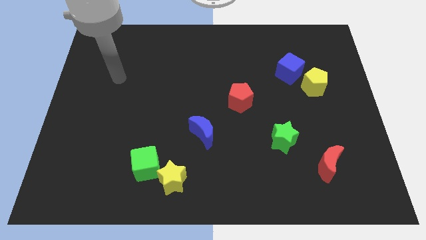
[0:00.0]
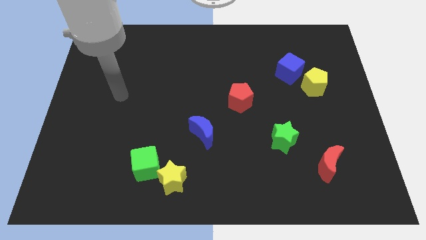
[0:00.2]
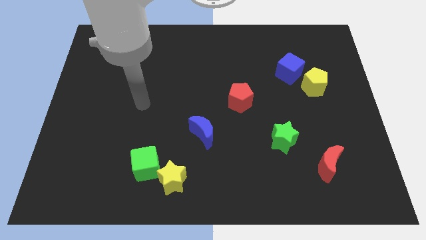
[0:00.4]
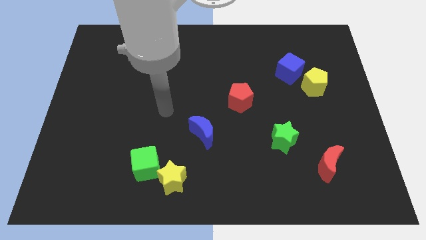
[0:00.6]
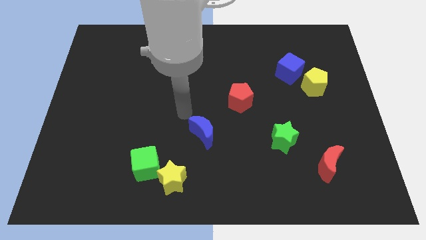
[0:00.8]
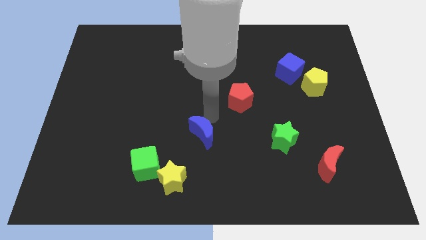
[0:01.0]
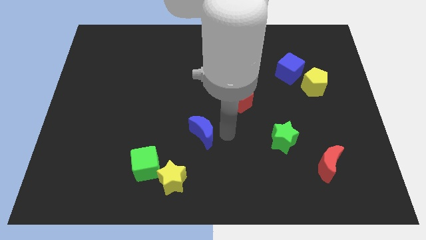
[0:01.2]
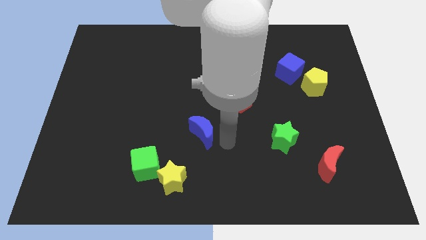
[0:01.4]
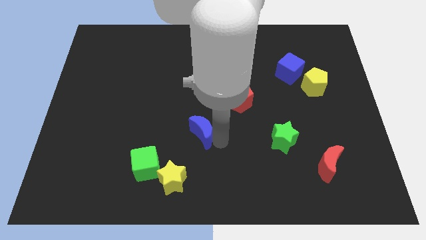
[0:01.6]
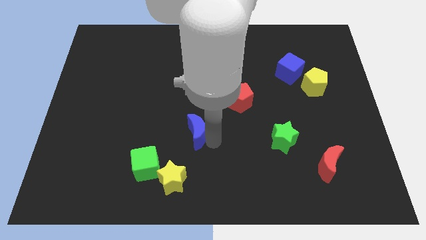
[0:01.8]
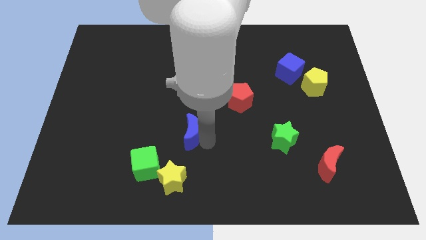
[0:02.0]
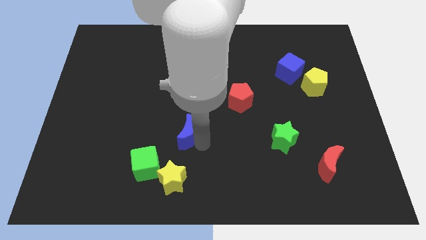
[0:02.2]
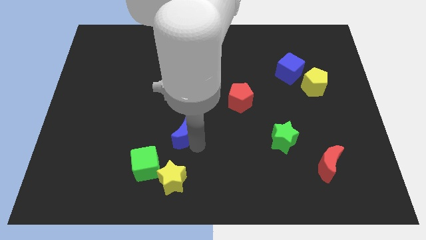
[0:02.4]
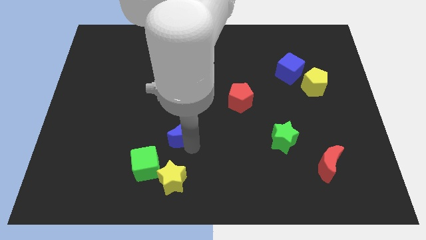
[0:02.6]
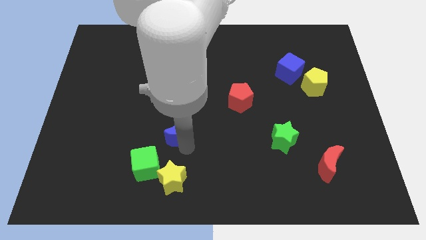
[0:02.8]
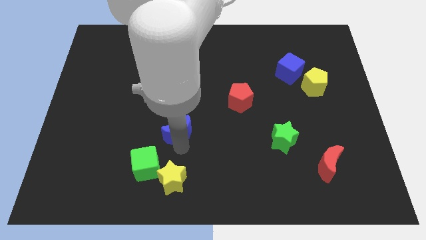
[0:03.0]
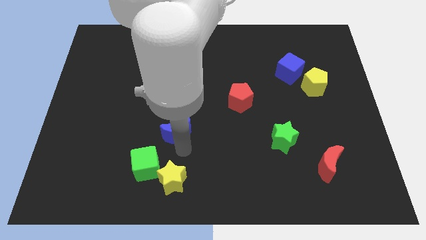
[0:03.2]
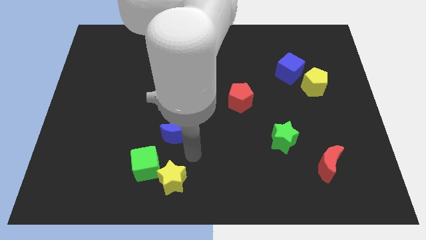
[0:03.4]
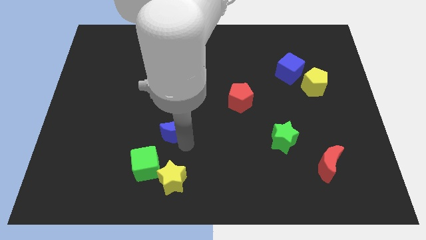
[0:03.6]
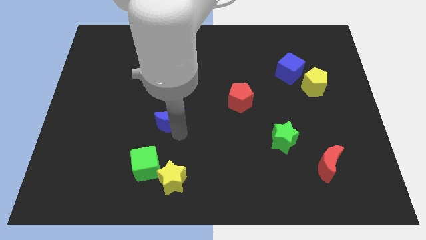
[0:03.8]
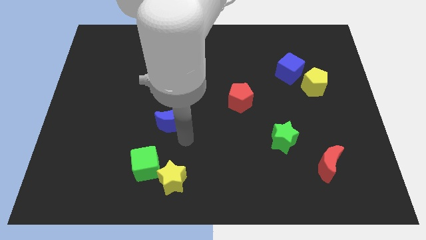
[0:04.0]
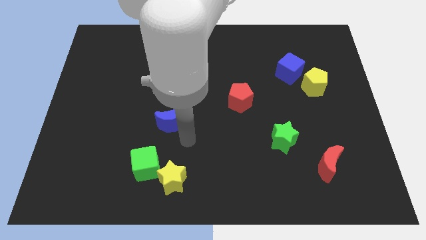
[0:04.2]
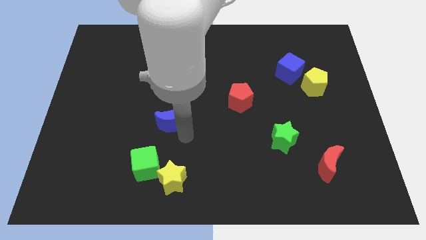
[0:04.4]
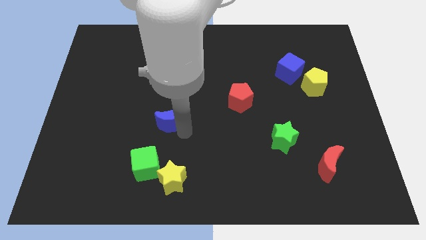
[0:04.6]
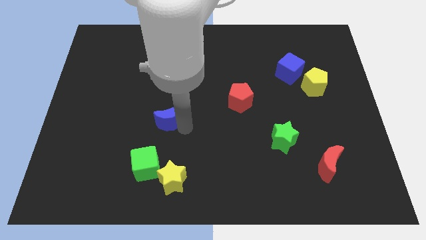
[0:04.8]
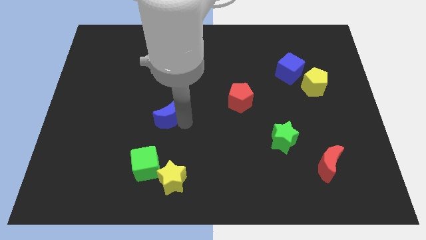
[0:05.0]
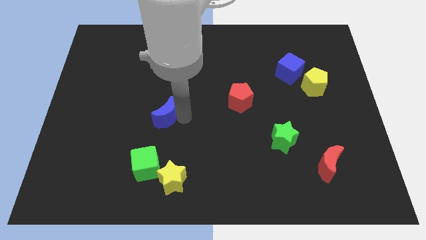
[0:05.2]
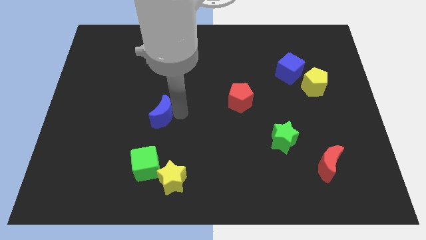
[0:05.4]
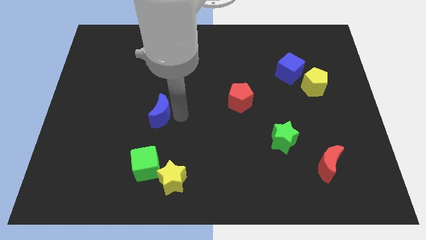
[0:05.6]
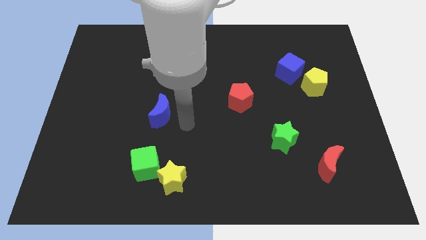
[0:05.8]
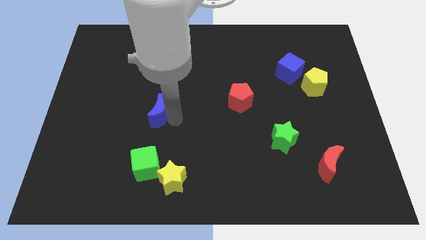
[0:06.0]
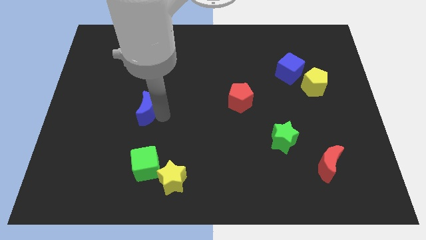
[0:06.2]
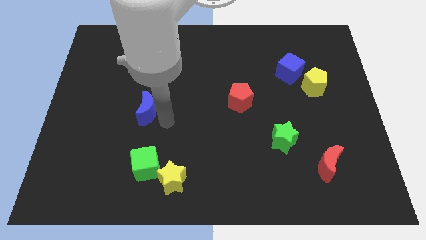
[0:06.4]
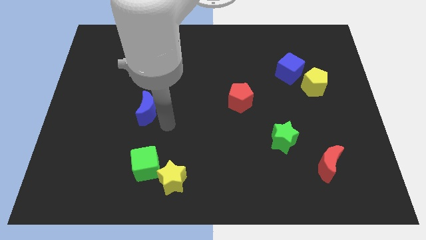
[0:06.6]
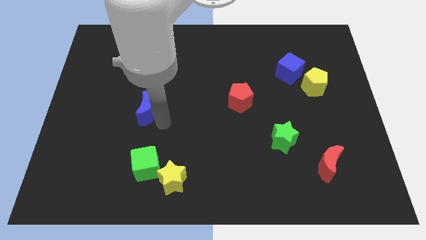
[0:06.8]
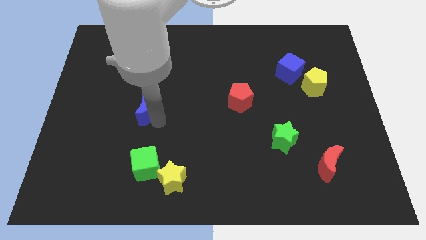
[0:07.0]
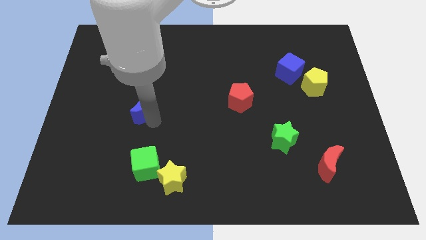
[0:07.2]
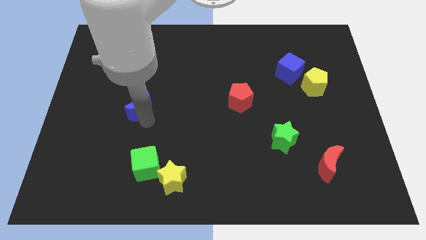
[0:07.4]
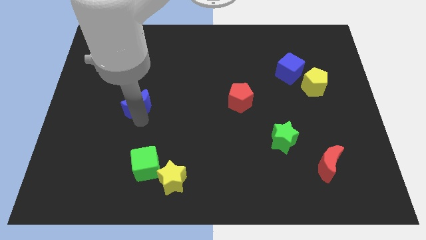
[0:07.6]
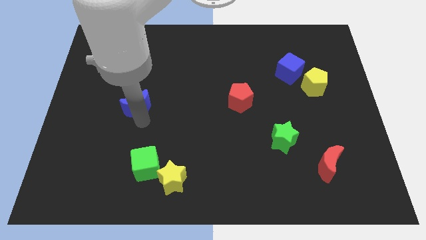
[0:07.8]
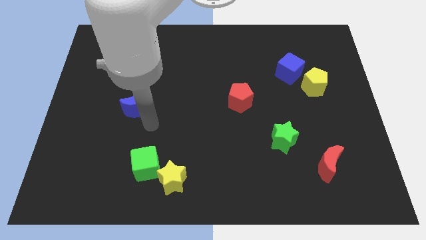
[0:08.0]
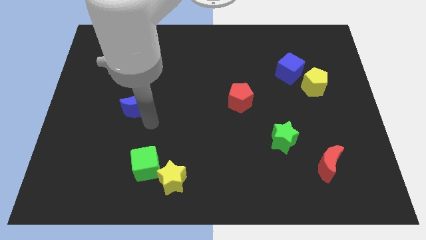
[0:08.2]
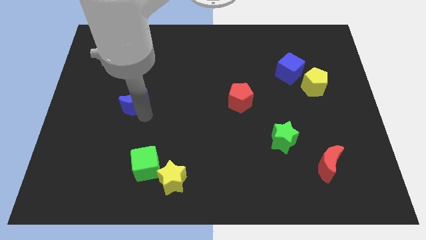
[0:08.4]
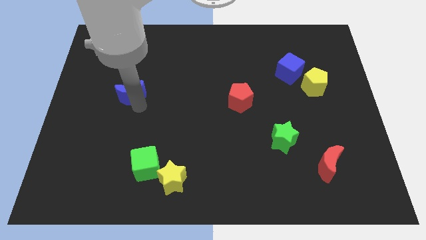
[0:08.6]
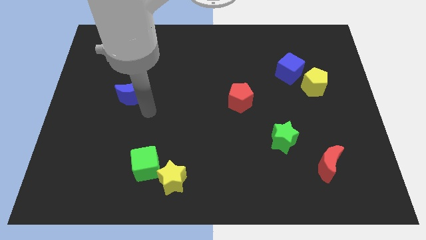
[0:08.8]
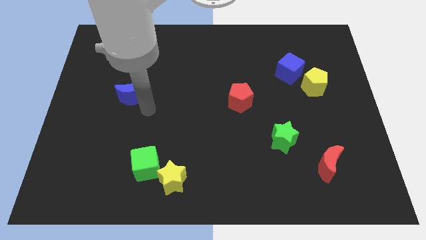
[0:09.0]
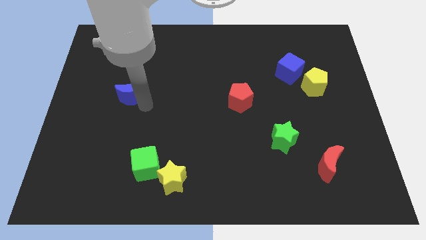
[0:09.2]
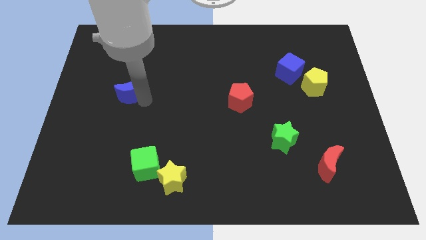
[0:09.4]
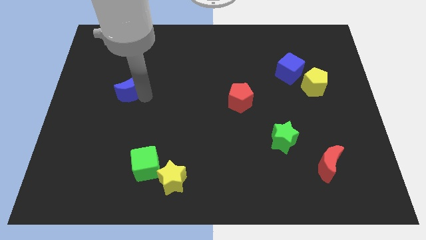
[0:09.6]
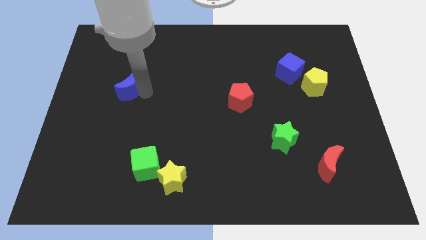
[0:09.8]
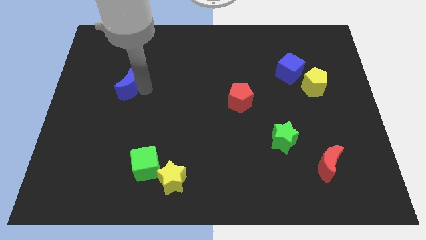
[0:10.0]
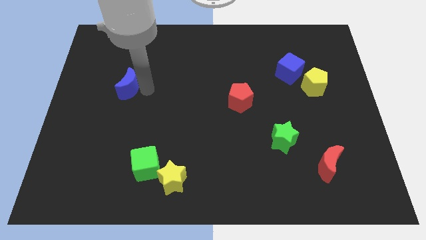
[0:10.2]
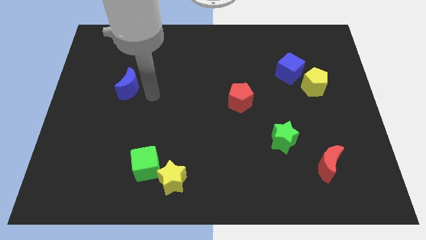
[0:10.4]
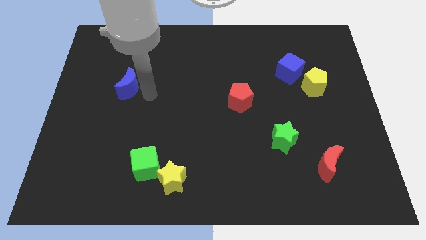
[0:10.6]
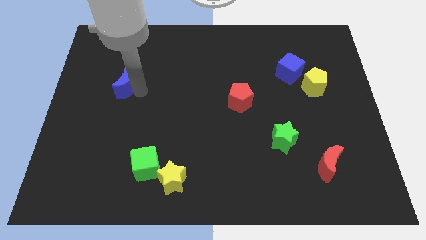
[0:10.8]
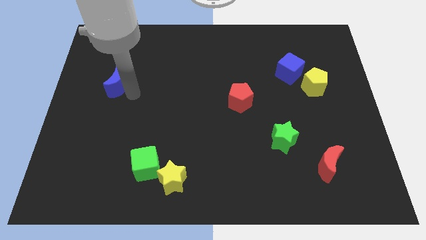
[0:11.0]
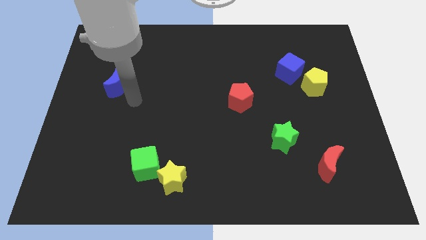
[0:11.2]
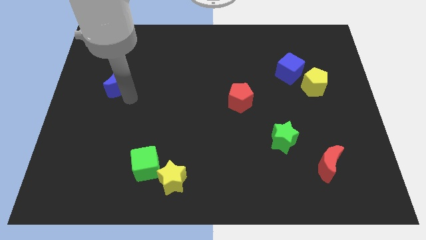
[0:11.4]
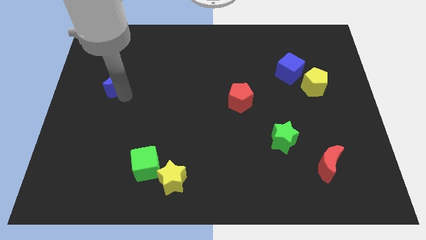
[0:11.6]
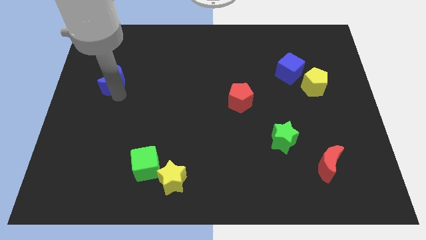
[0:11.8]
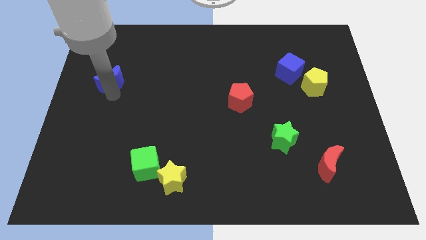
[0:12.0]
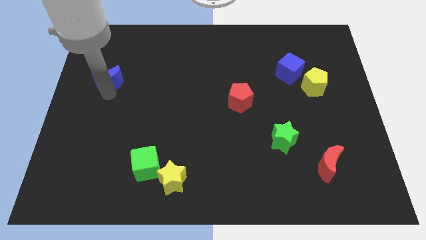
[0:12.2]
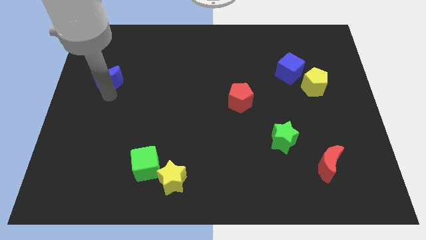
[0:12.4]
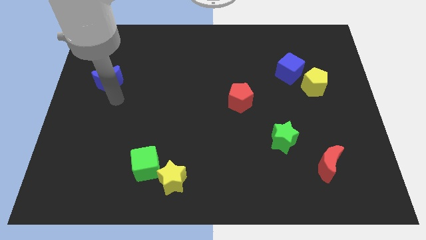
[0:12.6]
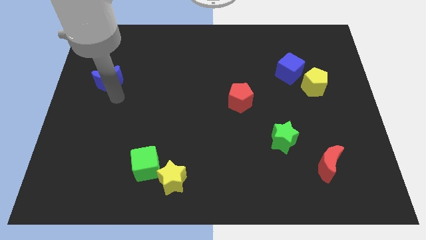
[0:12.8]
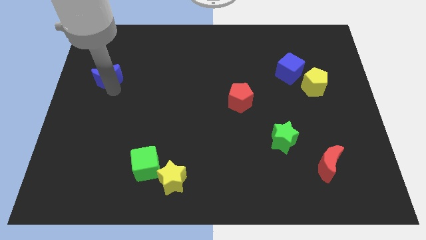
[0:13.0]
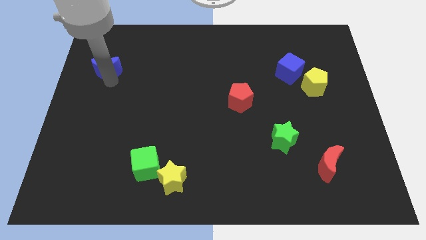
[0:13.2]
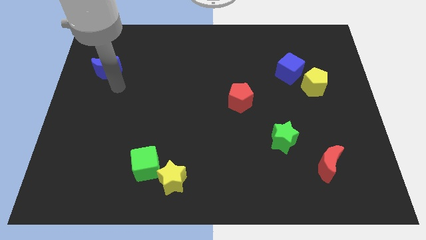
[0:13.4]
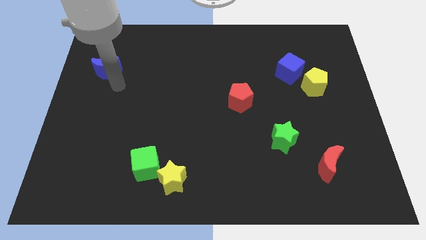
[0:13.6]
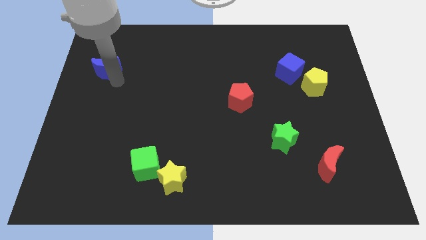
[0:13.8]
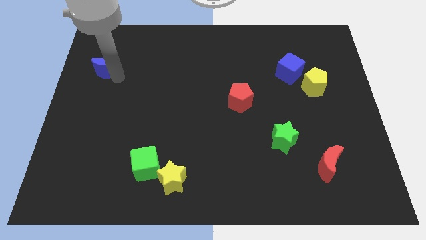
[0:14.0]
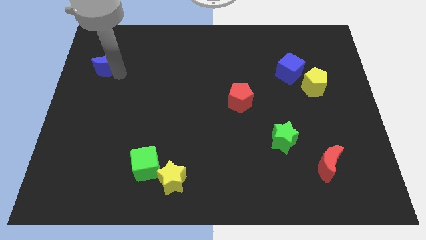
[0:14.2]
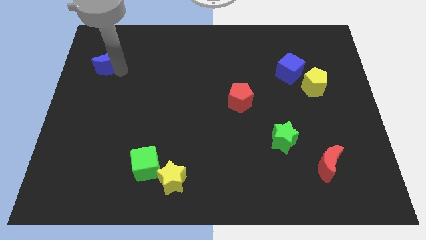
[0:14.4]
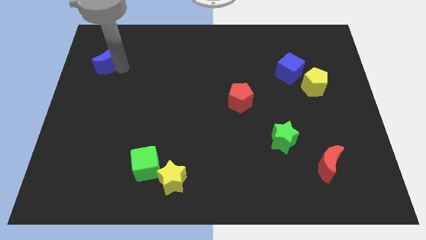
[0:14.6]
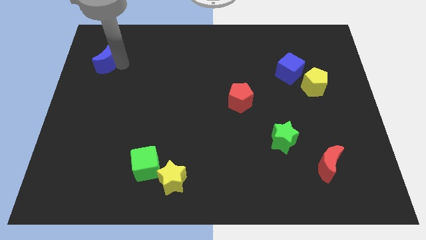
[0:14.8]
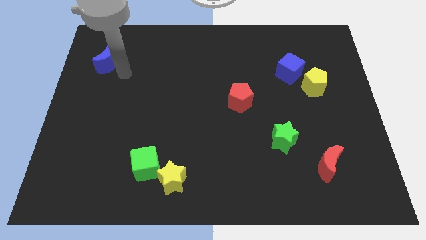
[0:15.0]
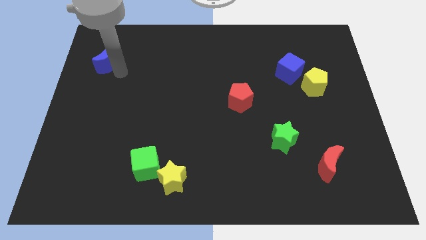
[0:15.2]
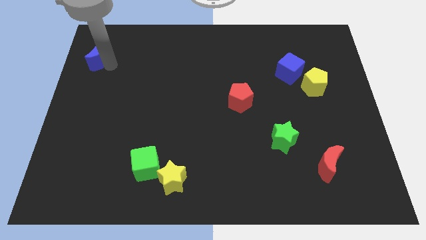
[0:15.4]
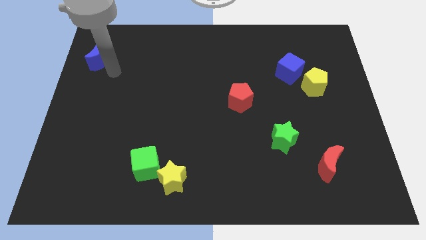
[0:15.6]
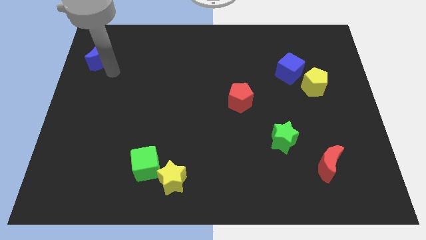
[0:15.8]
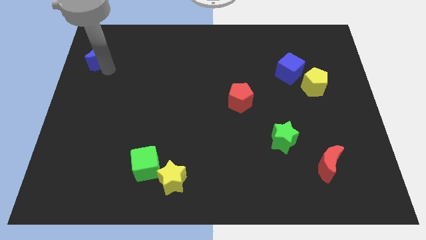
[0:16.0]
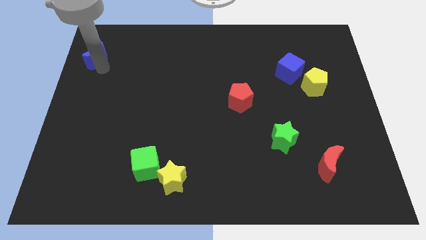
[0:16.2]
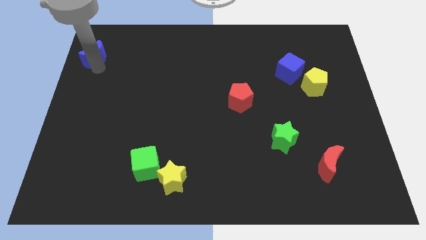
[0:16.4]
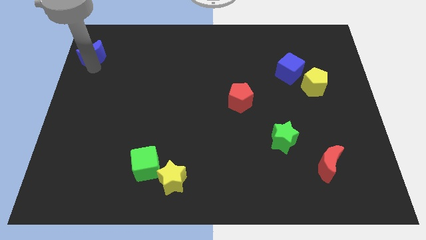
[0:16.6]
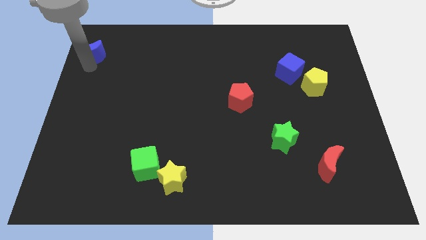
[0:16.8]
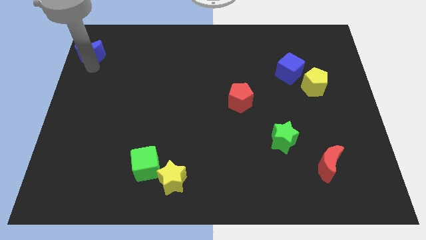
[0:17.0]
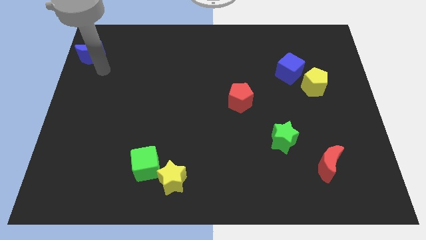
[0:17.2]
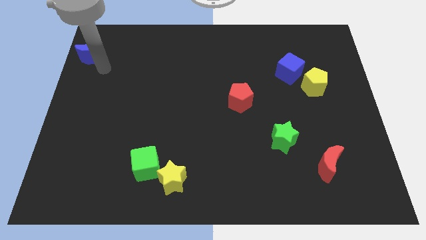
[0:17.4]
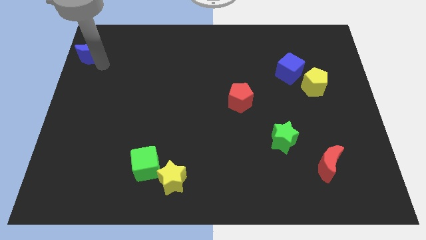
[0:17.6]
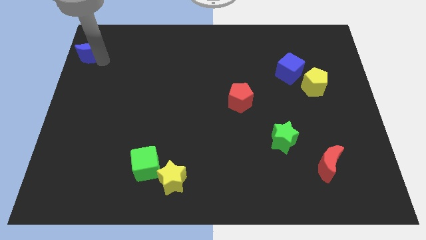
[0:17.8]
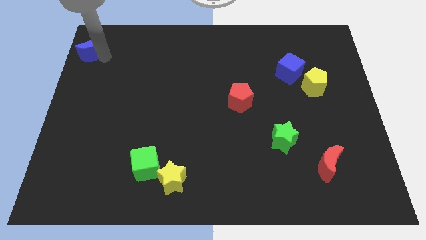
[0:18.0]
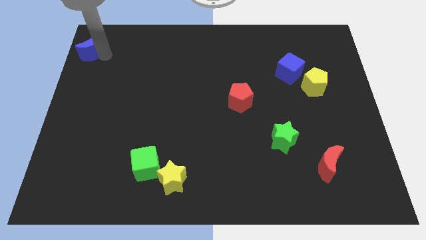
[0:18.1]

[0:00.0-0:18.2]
slide the blue moon to the top left
